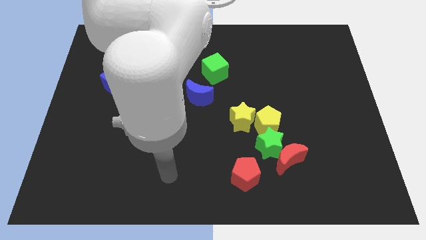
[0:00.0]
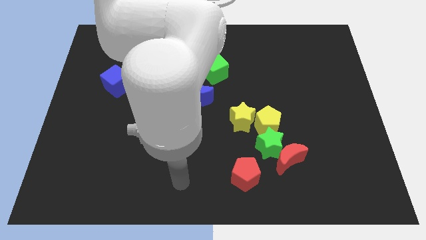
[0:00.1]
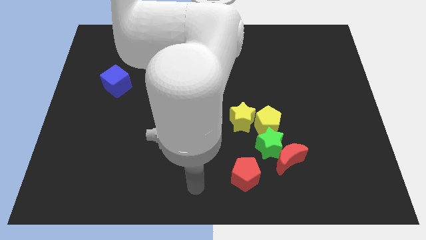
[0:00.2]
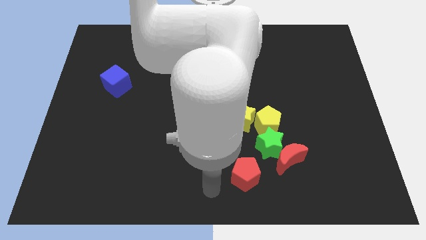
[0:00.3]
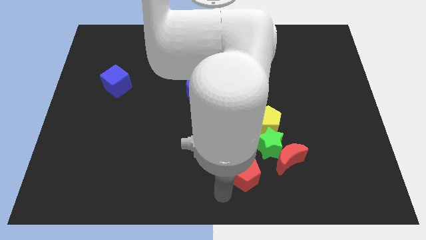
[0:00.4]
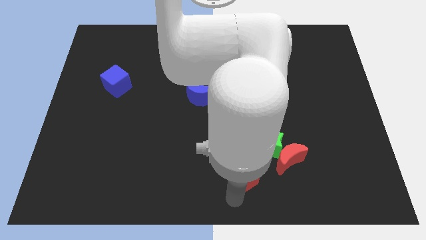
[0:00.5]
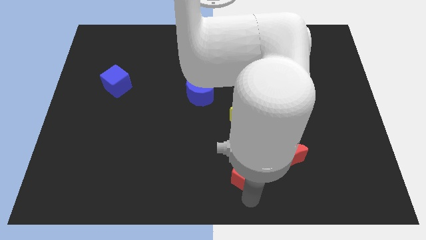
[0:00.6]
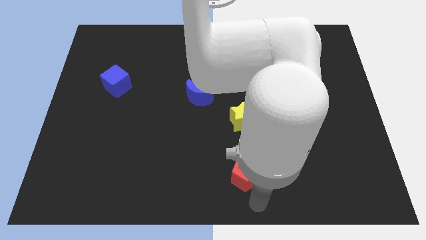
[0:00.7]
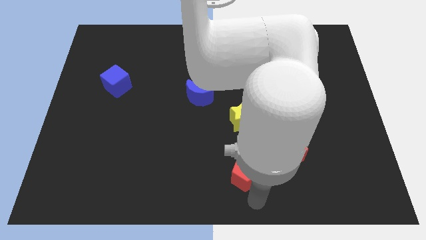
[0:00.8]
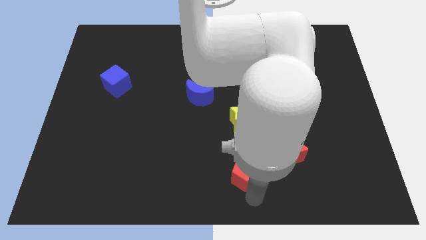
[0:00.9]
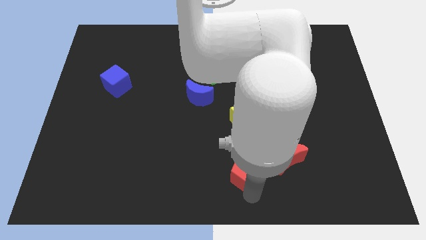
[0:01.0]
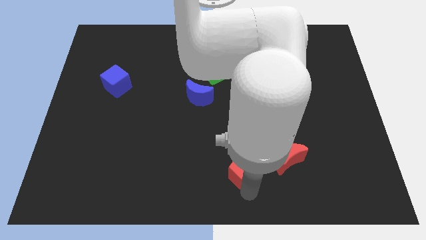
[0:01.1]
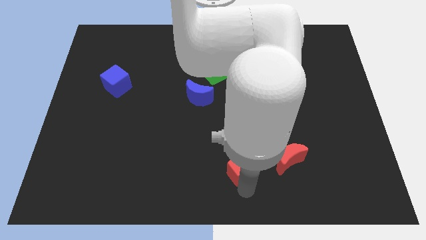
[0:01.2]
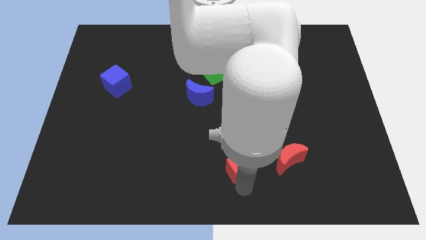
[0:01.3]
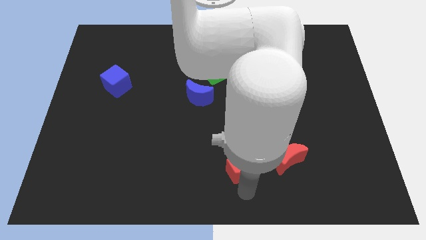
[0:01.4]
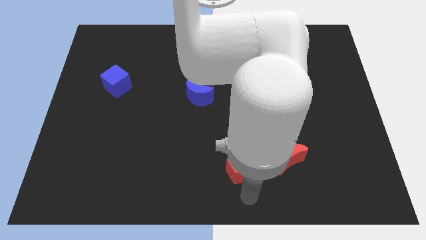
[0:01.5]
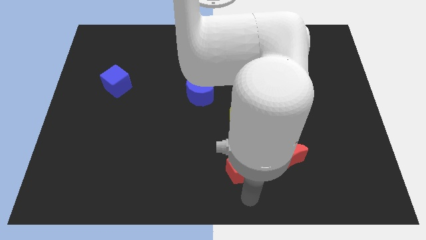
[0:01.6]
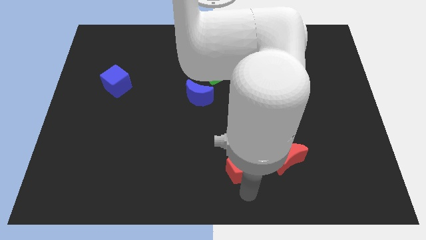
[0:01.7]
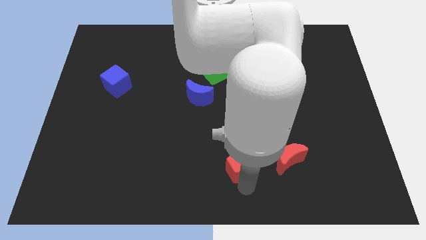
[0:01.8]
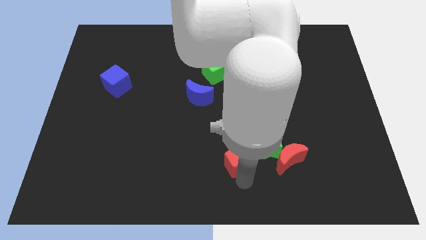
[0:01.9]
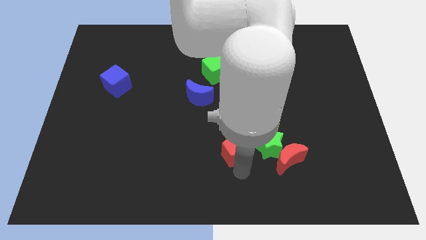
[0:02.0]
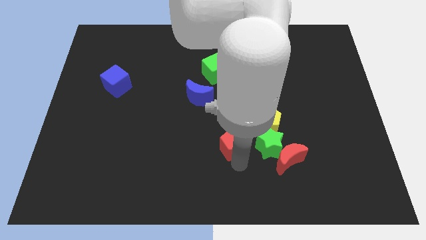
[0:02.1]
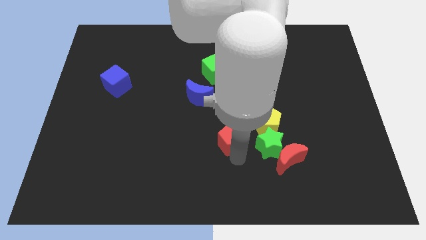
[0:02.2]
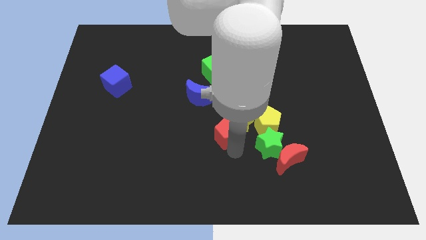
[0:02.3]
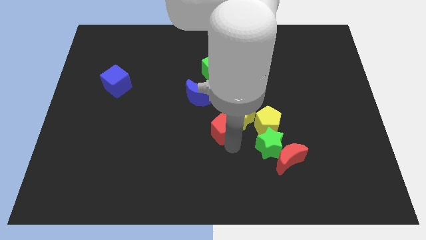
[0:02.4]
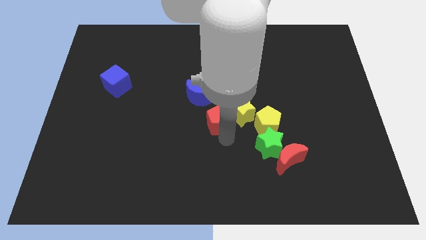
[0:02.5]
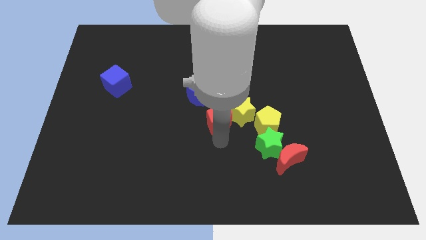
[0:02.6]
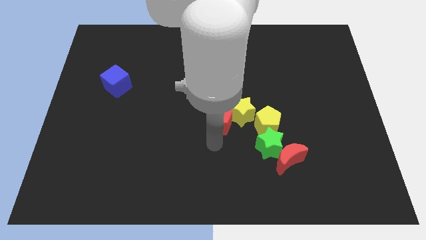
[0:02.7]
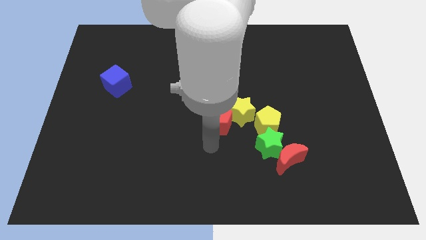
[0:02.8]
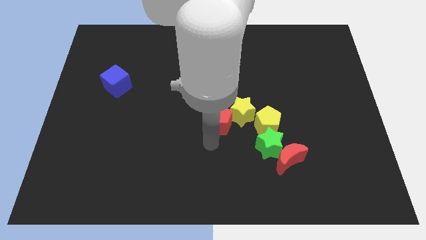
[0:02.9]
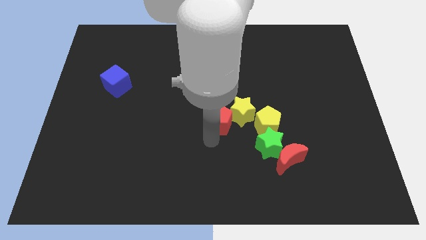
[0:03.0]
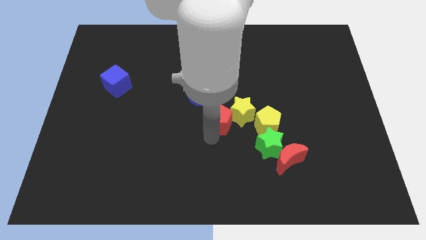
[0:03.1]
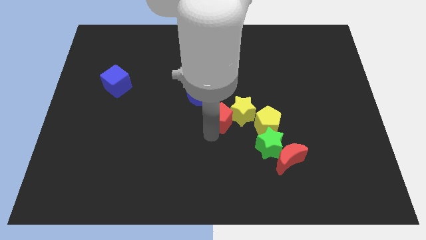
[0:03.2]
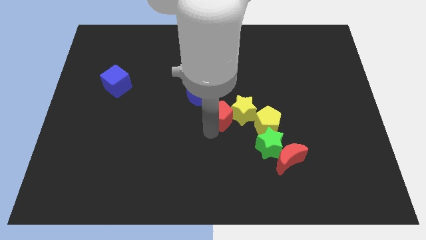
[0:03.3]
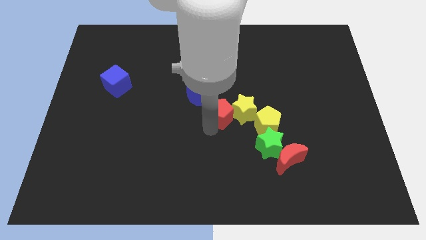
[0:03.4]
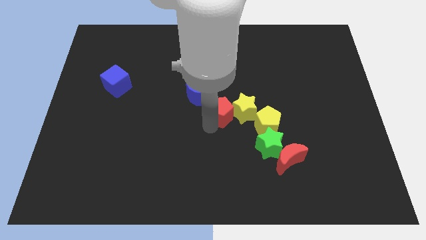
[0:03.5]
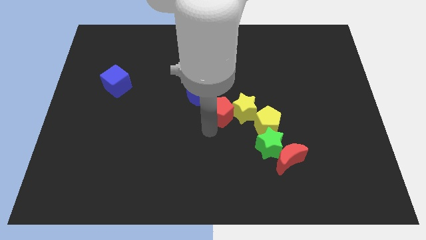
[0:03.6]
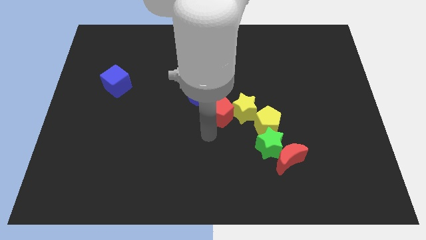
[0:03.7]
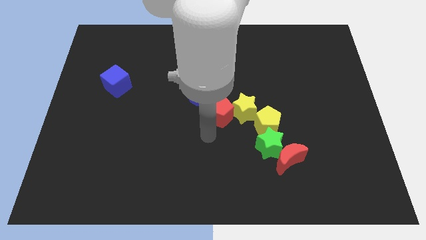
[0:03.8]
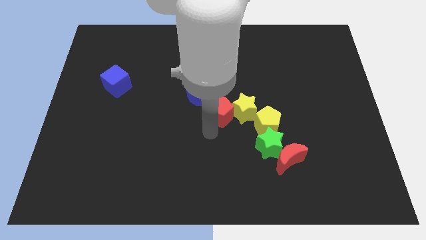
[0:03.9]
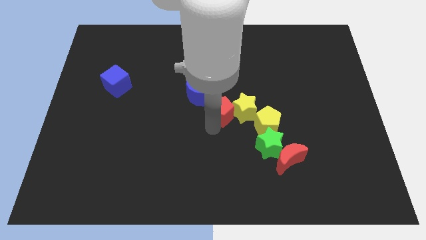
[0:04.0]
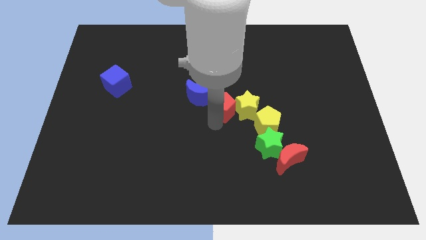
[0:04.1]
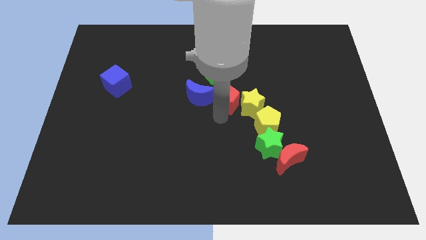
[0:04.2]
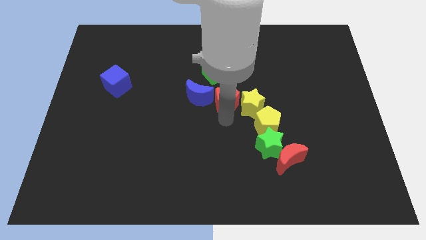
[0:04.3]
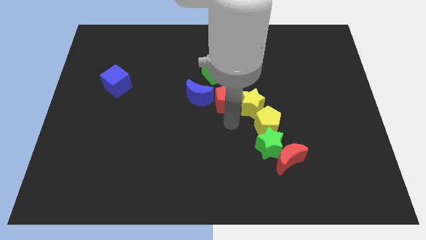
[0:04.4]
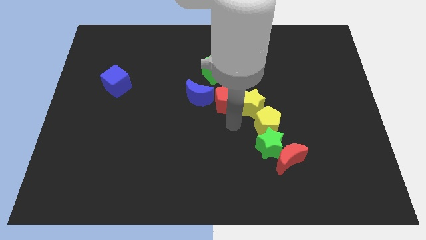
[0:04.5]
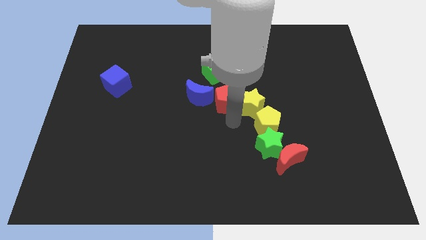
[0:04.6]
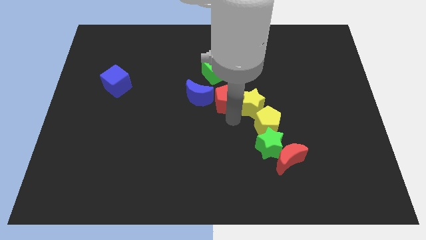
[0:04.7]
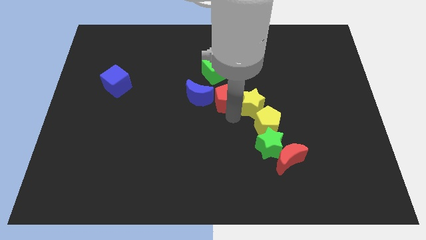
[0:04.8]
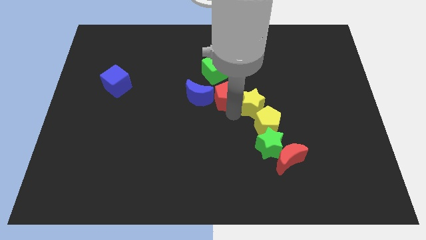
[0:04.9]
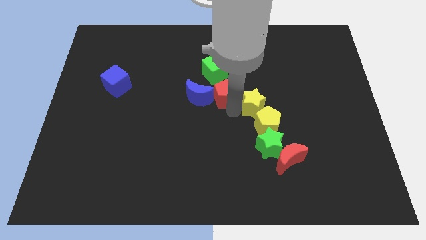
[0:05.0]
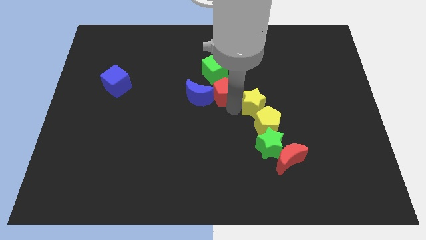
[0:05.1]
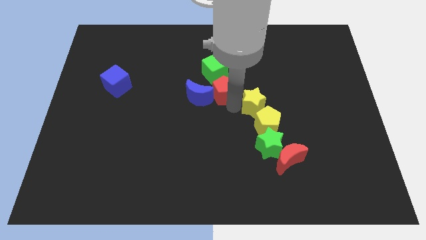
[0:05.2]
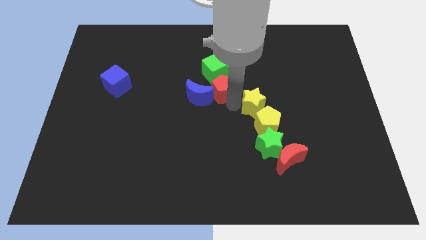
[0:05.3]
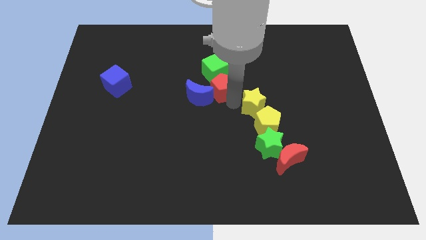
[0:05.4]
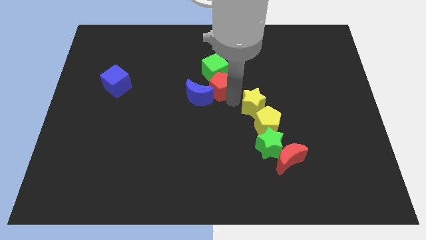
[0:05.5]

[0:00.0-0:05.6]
put the red pentagon next to the green cube

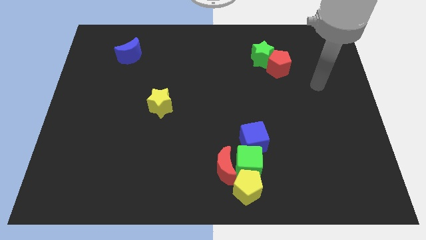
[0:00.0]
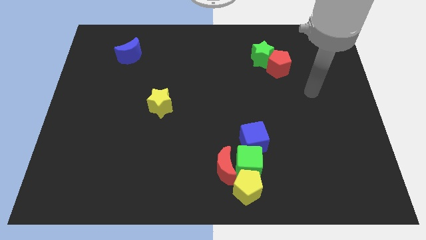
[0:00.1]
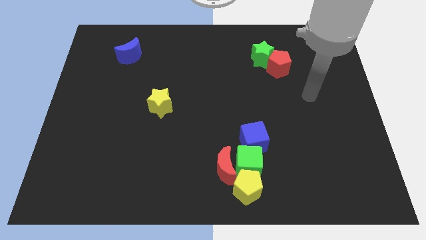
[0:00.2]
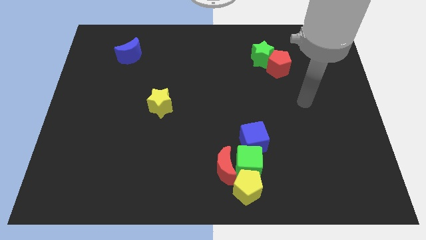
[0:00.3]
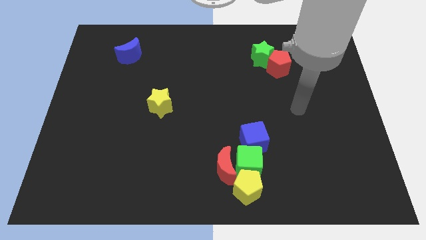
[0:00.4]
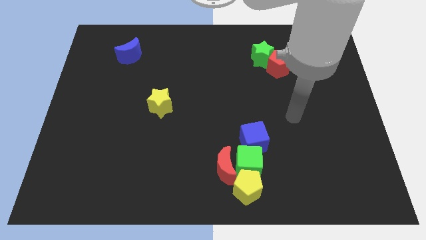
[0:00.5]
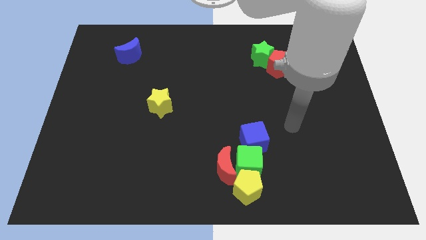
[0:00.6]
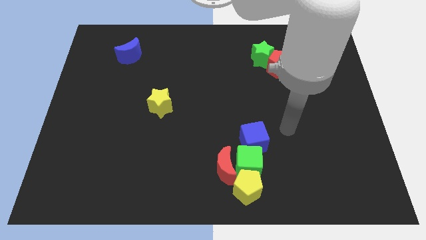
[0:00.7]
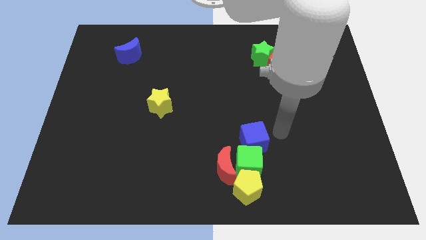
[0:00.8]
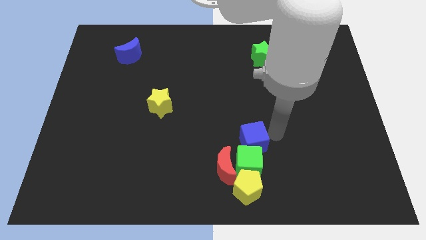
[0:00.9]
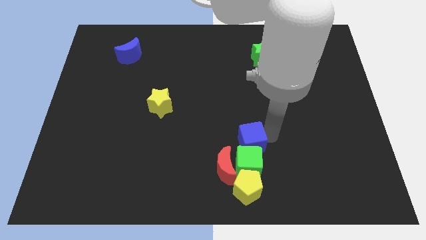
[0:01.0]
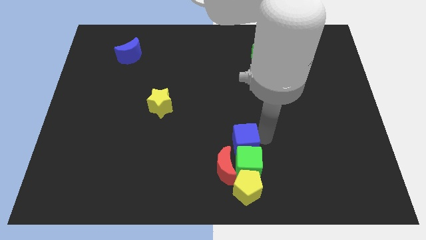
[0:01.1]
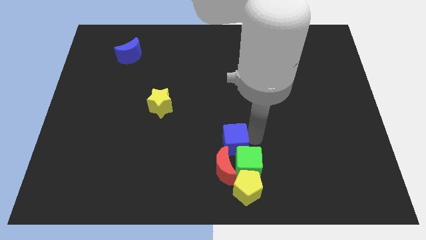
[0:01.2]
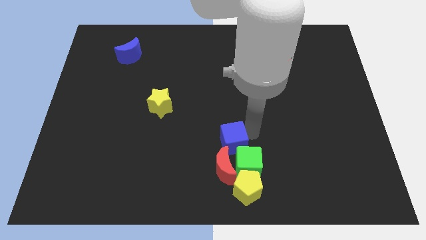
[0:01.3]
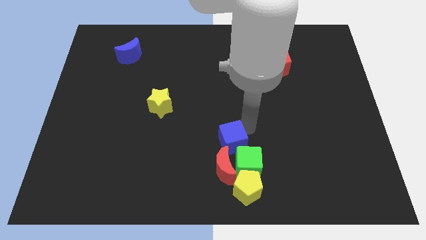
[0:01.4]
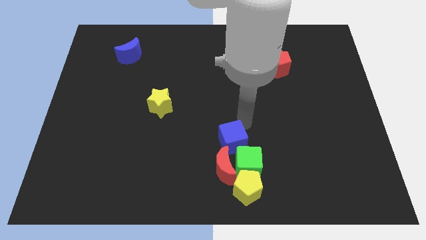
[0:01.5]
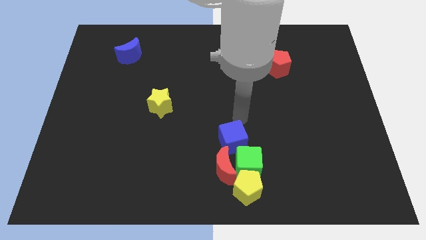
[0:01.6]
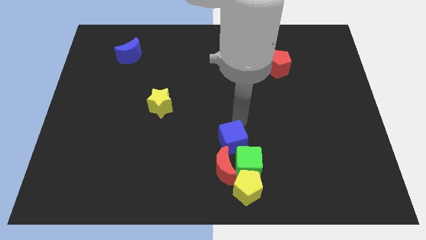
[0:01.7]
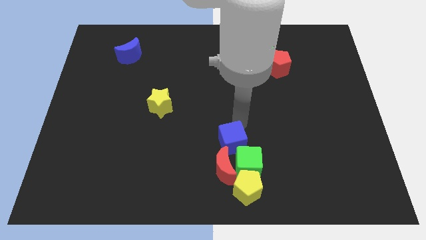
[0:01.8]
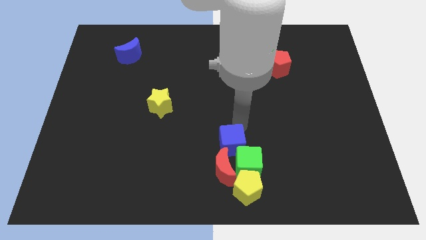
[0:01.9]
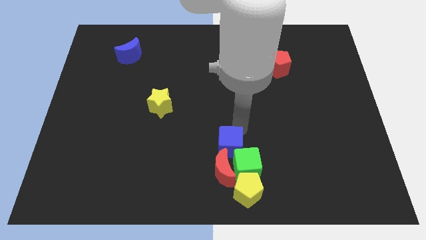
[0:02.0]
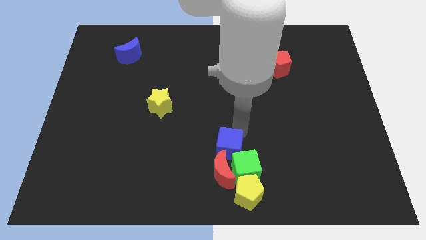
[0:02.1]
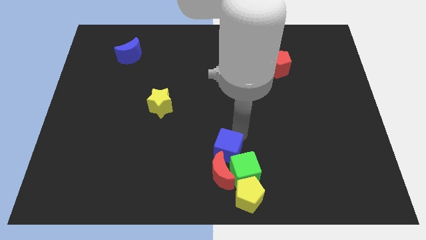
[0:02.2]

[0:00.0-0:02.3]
push the blue cube close to the red moon

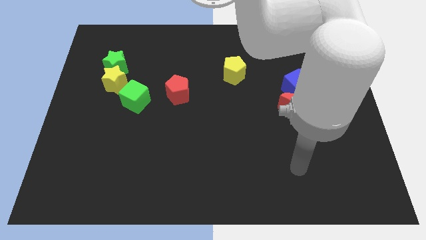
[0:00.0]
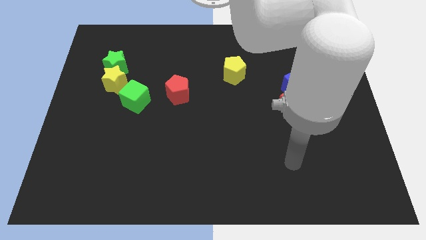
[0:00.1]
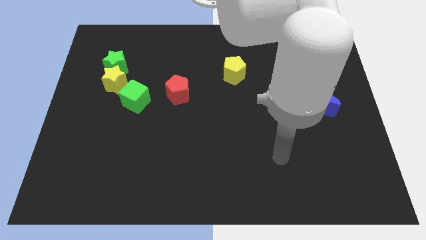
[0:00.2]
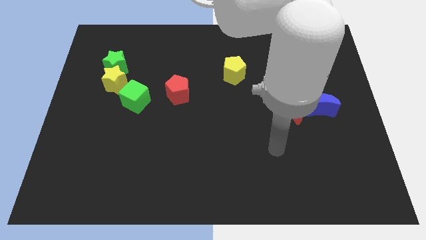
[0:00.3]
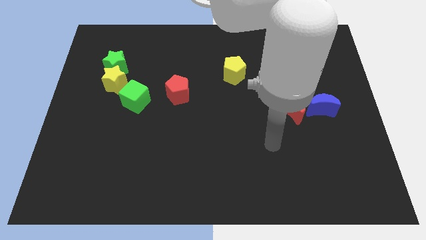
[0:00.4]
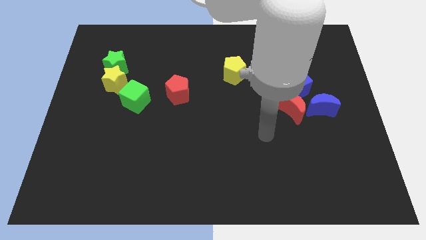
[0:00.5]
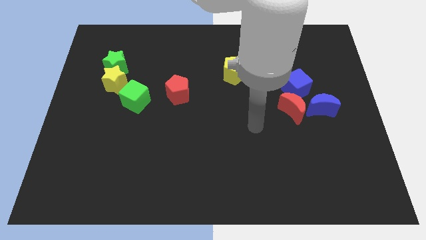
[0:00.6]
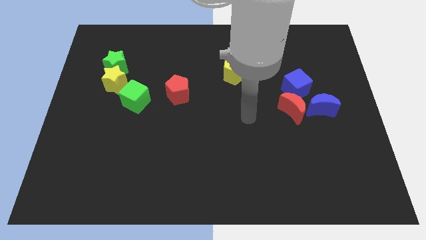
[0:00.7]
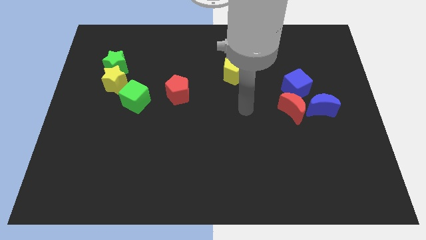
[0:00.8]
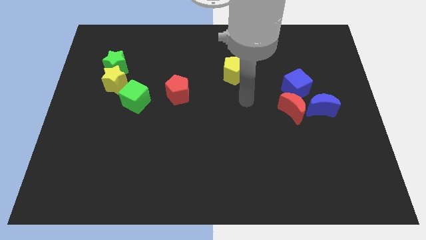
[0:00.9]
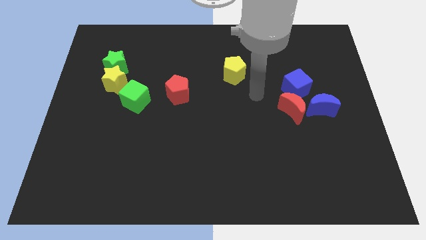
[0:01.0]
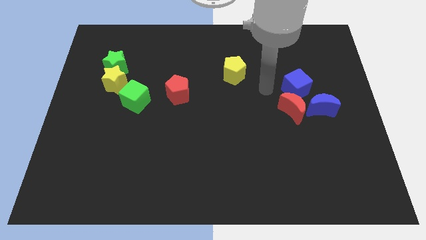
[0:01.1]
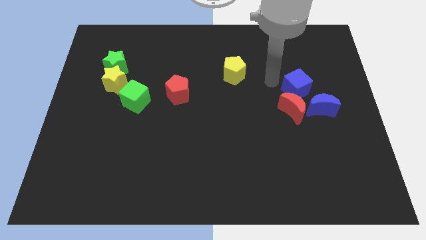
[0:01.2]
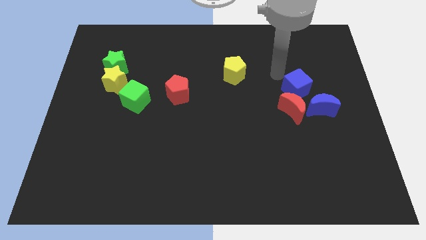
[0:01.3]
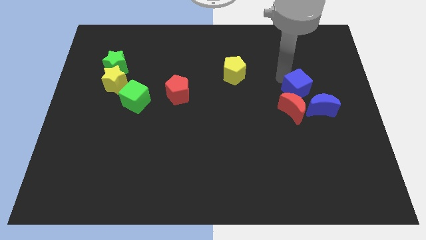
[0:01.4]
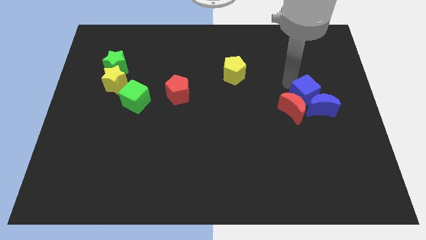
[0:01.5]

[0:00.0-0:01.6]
slide the blue cube close to the blue moon
